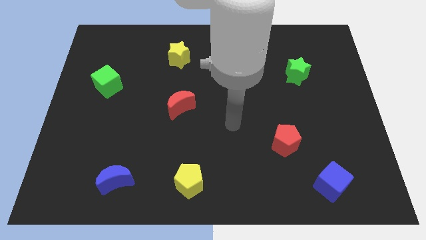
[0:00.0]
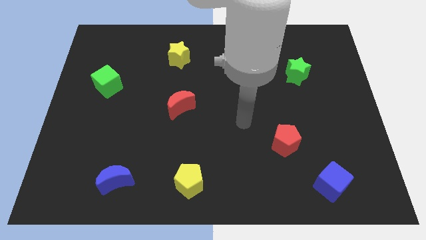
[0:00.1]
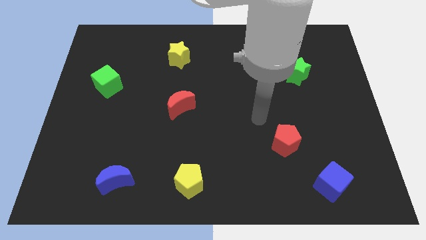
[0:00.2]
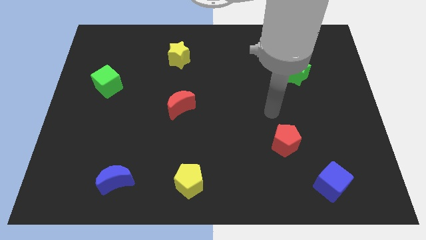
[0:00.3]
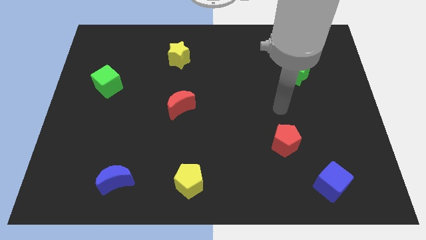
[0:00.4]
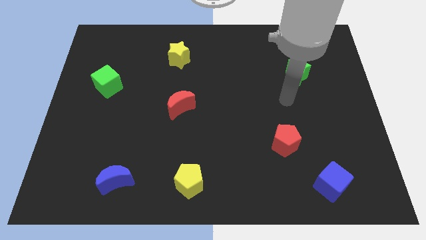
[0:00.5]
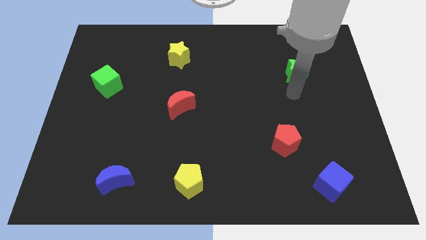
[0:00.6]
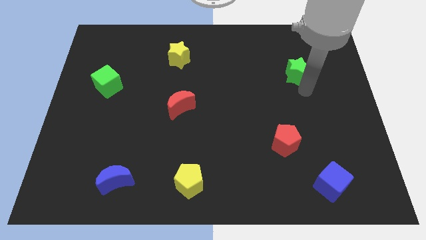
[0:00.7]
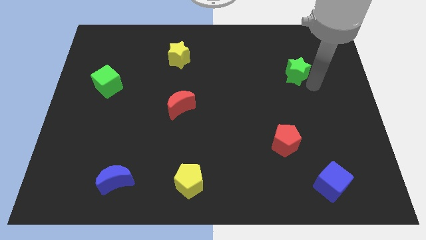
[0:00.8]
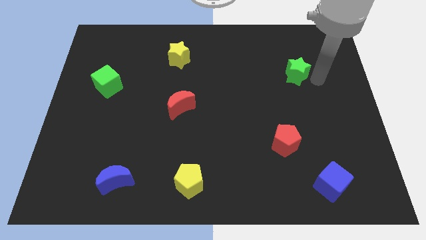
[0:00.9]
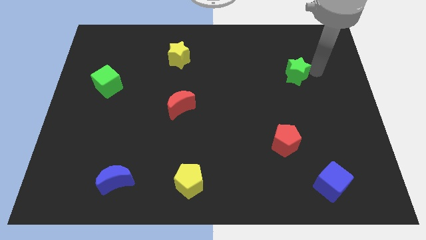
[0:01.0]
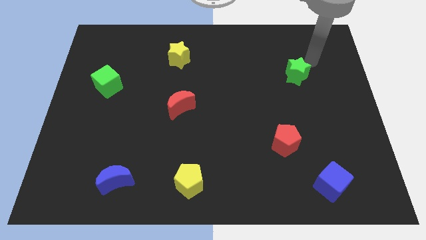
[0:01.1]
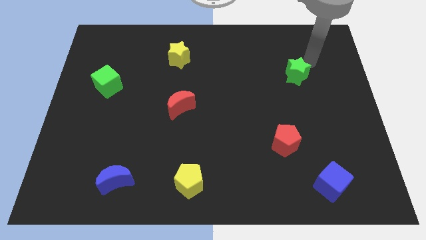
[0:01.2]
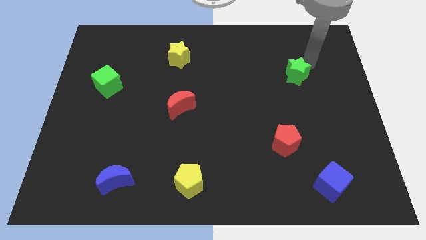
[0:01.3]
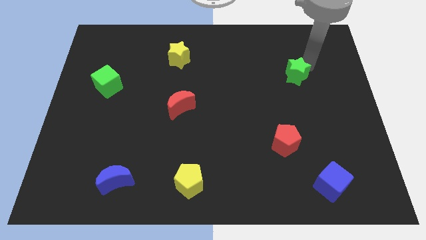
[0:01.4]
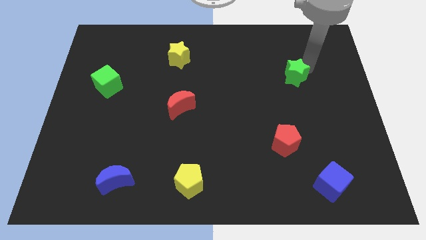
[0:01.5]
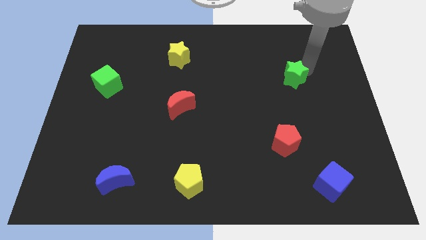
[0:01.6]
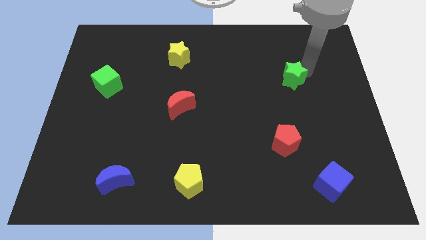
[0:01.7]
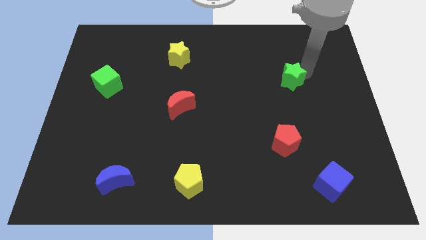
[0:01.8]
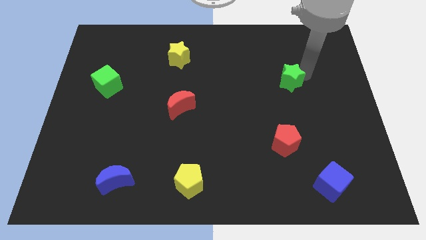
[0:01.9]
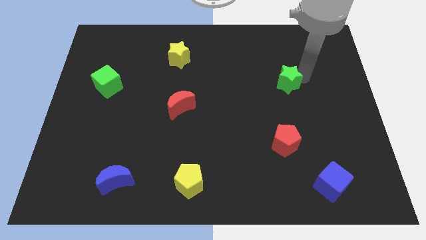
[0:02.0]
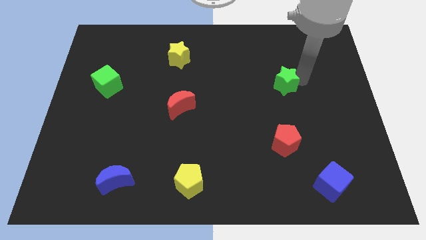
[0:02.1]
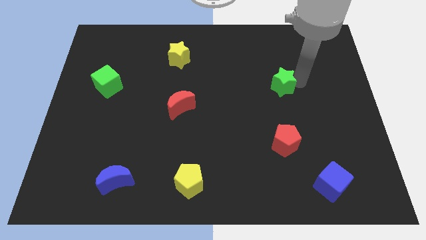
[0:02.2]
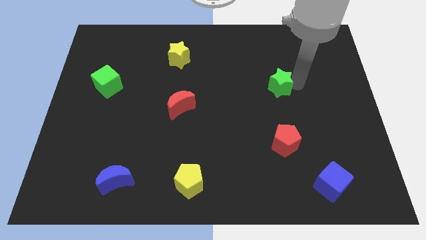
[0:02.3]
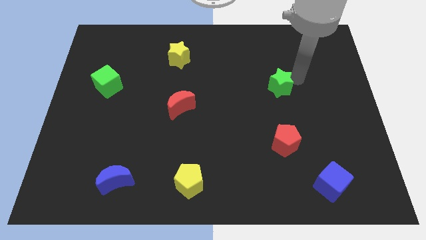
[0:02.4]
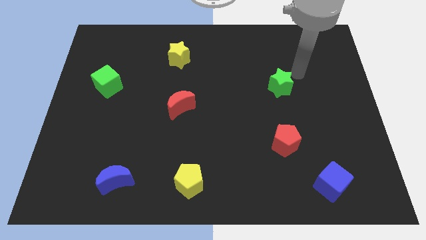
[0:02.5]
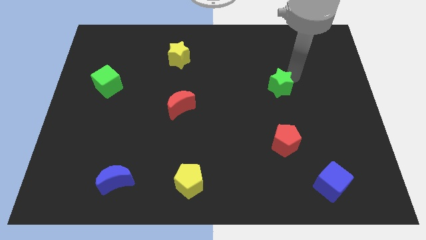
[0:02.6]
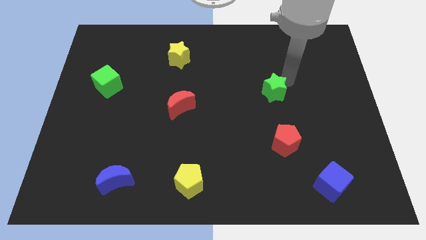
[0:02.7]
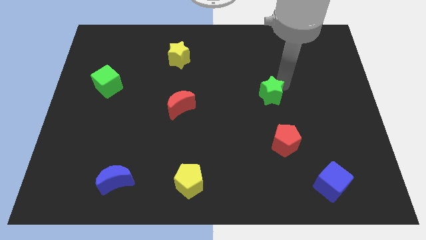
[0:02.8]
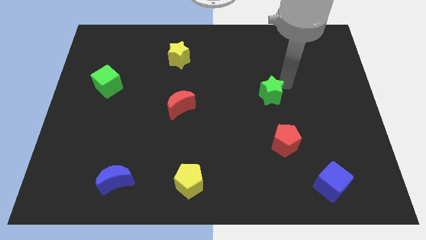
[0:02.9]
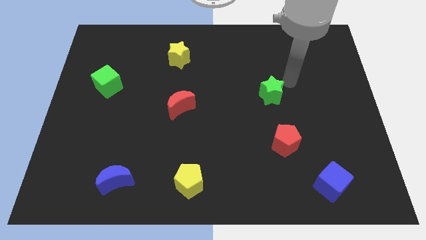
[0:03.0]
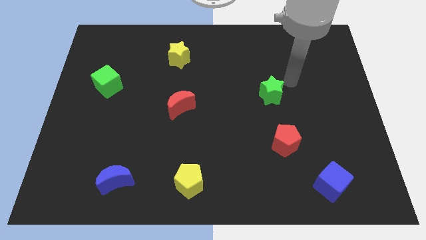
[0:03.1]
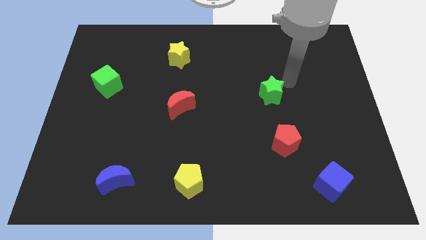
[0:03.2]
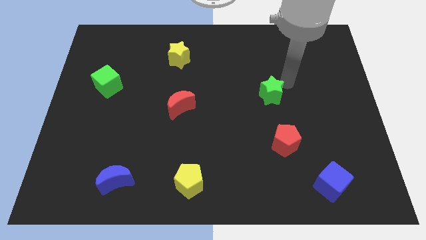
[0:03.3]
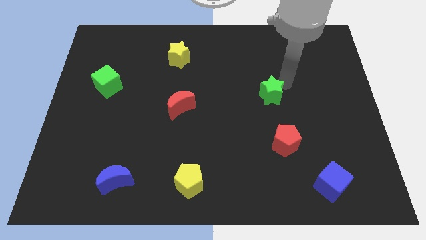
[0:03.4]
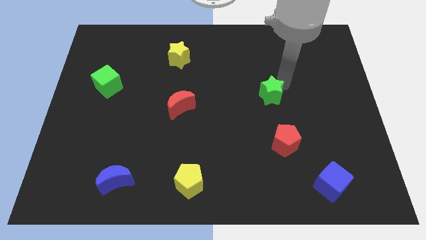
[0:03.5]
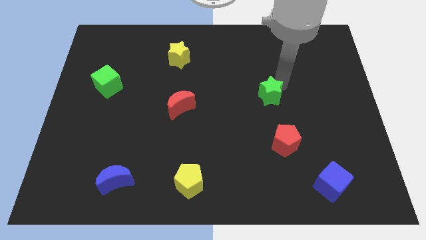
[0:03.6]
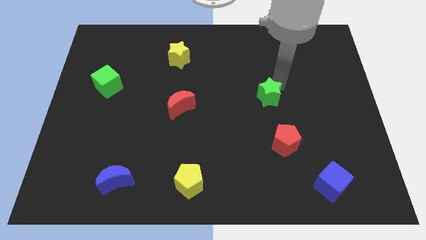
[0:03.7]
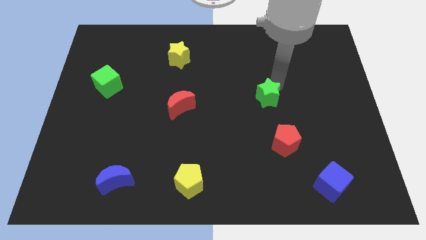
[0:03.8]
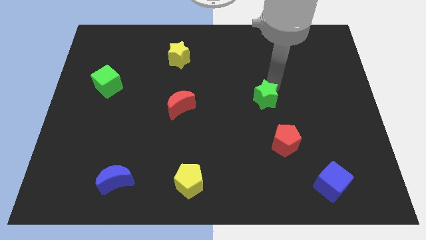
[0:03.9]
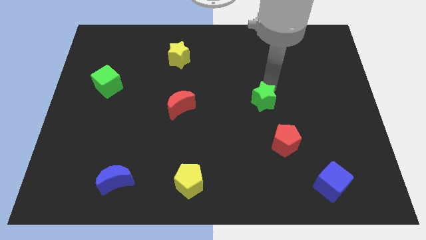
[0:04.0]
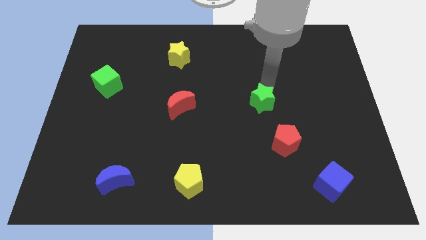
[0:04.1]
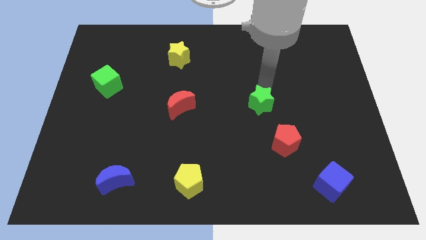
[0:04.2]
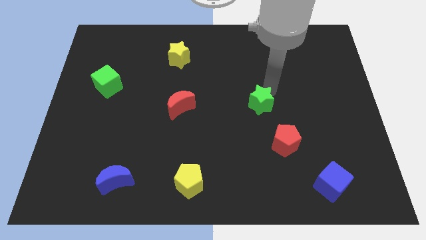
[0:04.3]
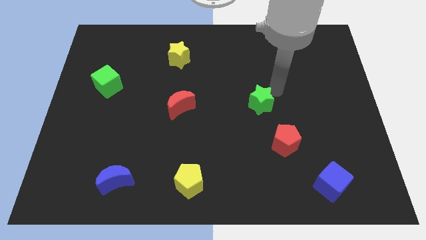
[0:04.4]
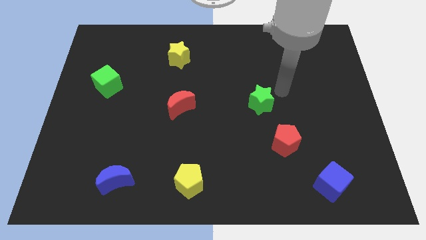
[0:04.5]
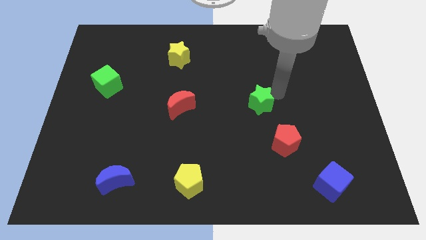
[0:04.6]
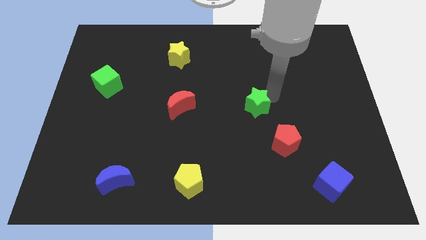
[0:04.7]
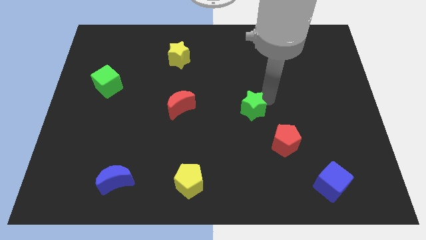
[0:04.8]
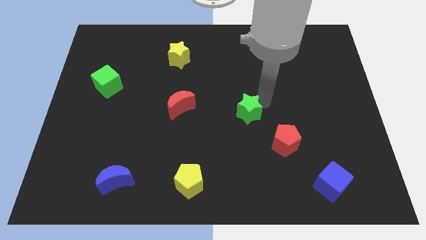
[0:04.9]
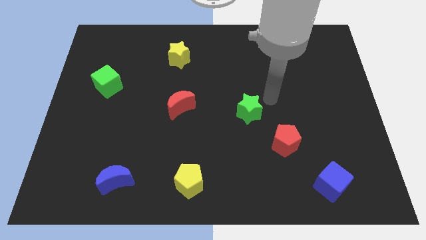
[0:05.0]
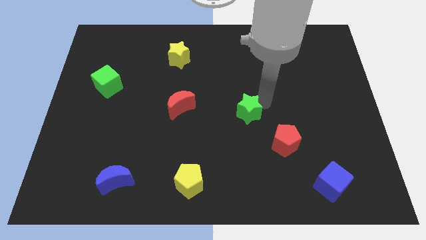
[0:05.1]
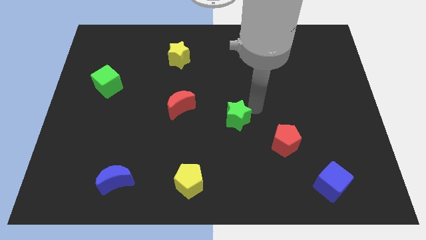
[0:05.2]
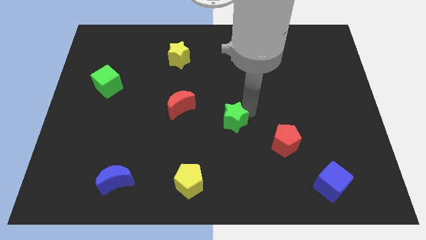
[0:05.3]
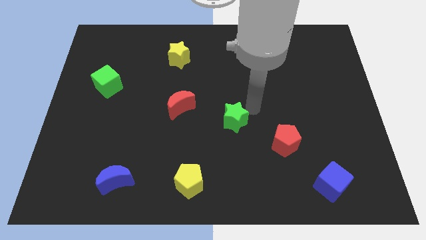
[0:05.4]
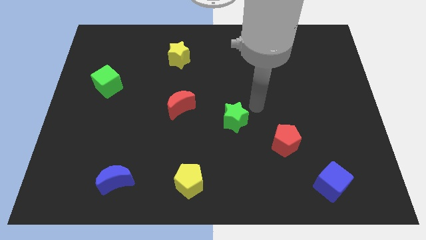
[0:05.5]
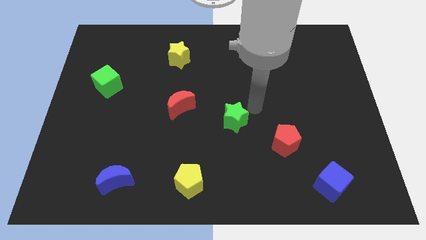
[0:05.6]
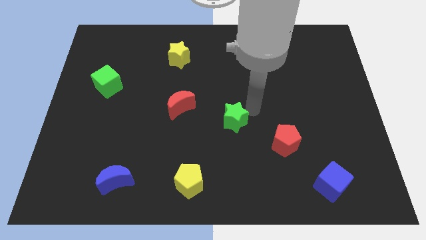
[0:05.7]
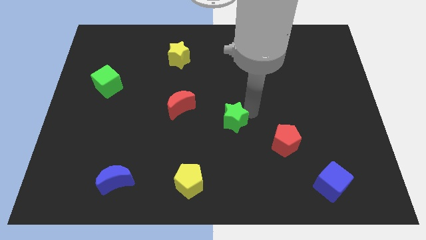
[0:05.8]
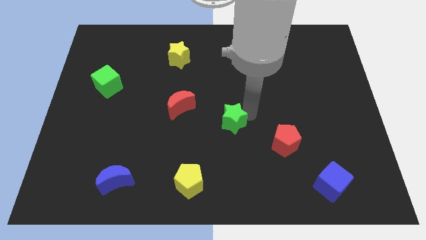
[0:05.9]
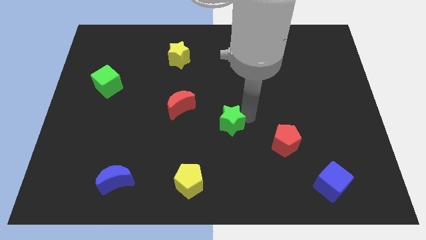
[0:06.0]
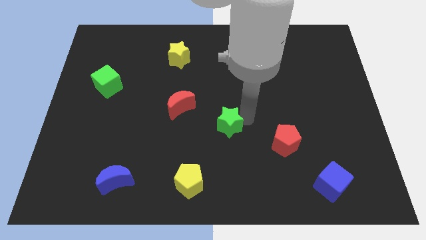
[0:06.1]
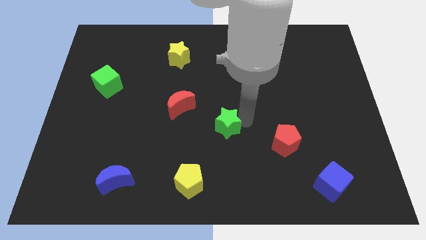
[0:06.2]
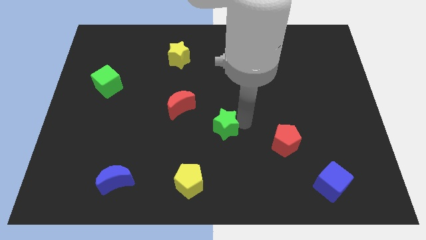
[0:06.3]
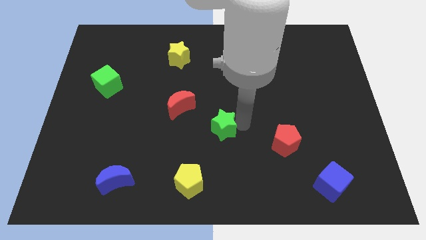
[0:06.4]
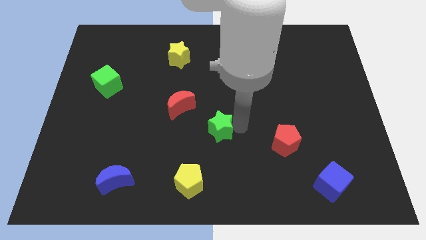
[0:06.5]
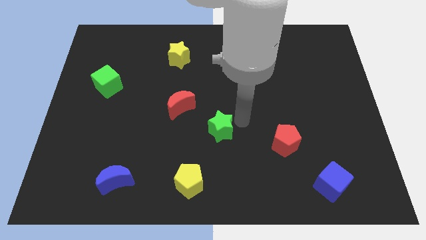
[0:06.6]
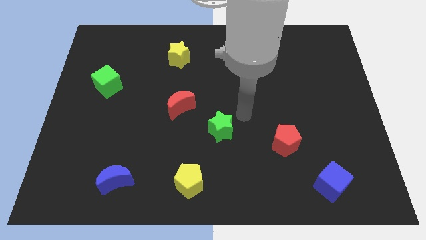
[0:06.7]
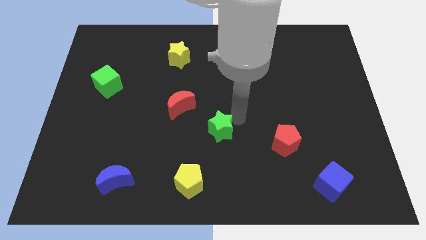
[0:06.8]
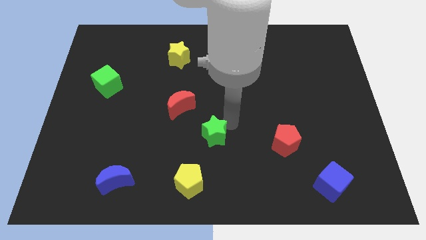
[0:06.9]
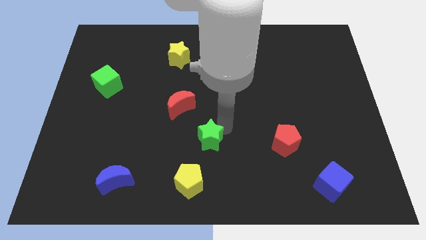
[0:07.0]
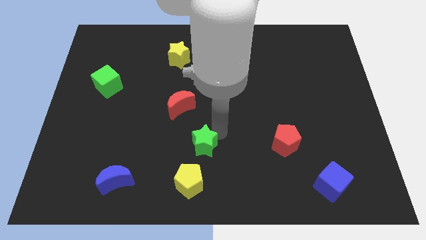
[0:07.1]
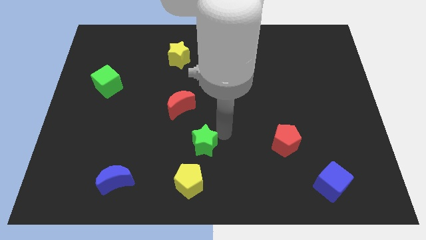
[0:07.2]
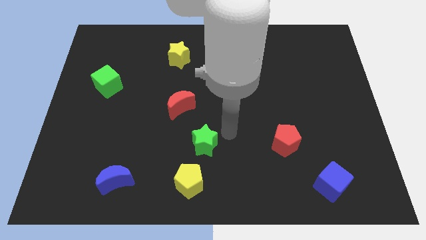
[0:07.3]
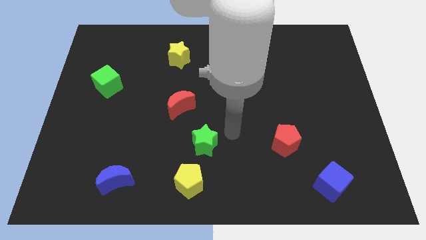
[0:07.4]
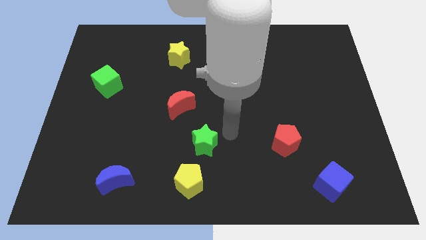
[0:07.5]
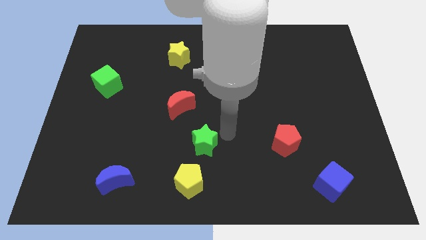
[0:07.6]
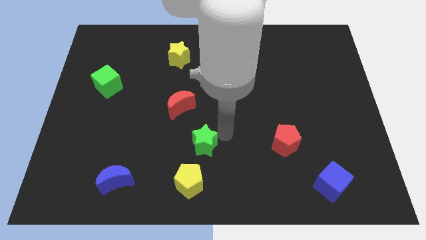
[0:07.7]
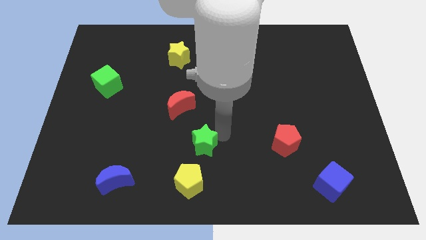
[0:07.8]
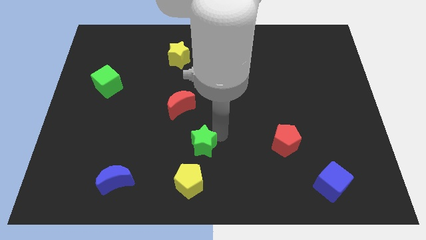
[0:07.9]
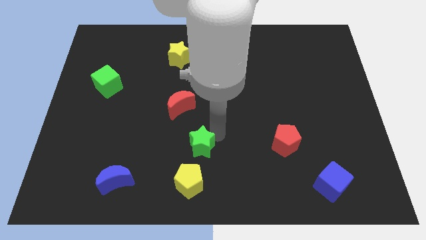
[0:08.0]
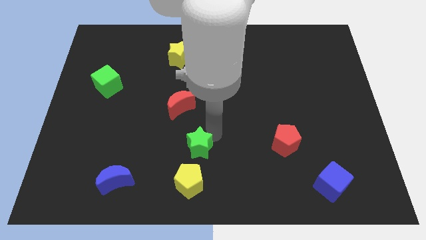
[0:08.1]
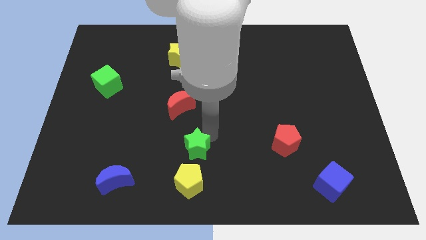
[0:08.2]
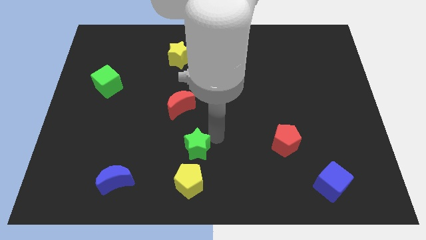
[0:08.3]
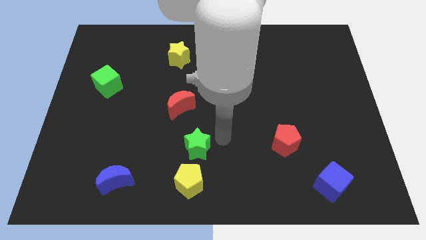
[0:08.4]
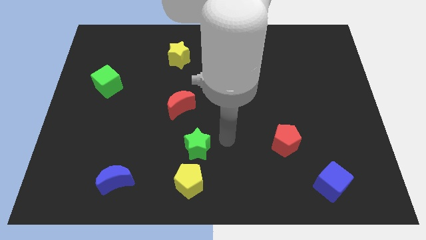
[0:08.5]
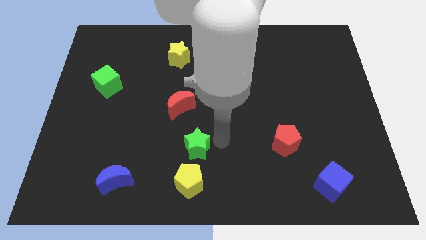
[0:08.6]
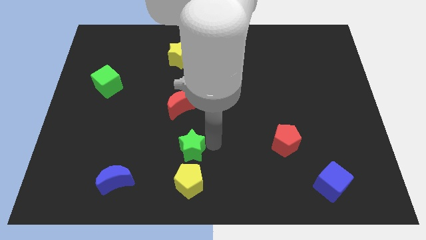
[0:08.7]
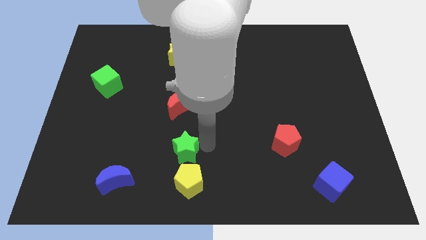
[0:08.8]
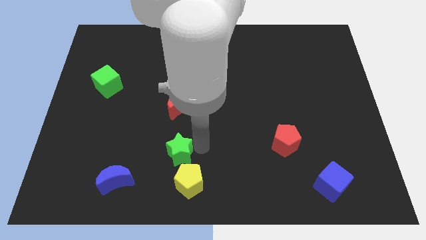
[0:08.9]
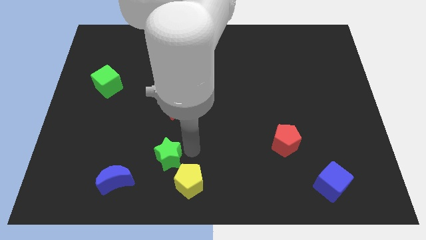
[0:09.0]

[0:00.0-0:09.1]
push the green star to the top right side of the blue moon
